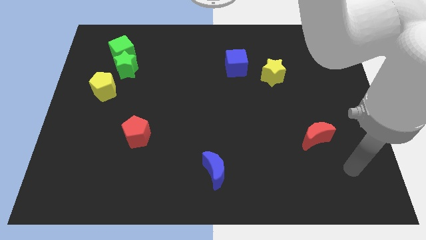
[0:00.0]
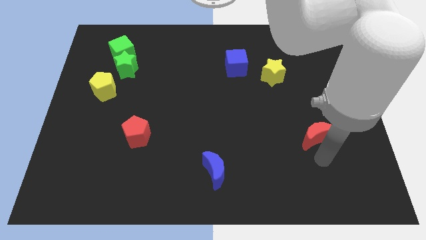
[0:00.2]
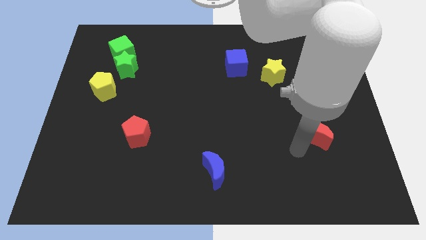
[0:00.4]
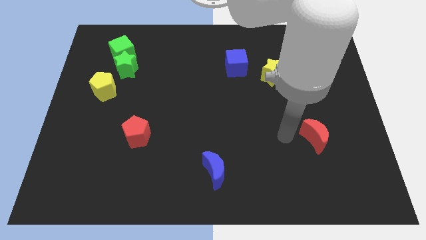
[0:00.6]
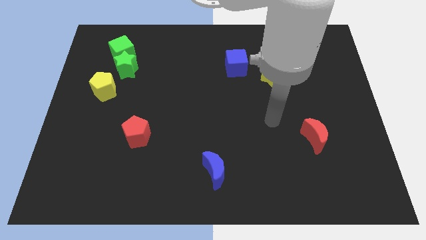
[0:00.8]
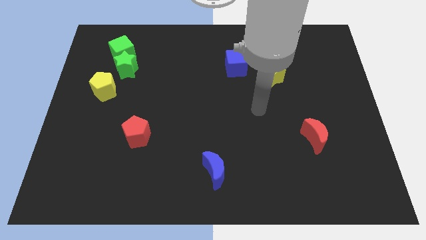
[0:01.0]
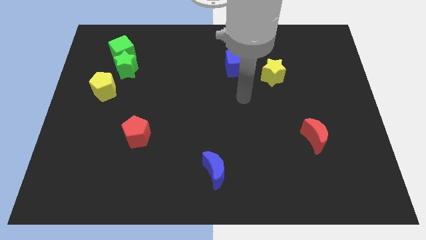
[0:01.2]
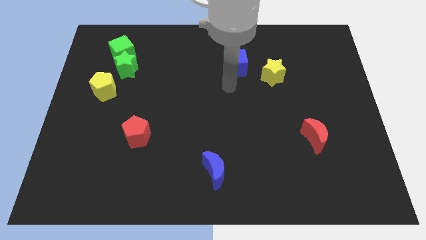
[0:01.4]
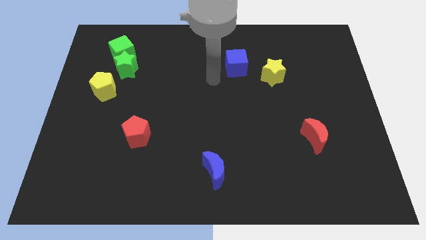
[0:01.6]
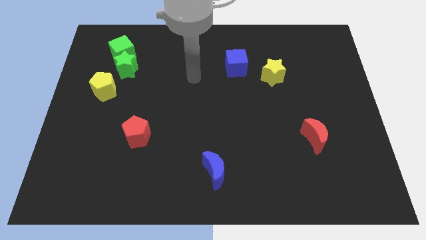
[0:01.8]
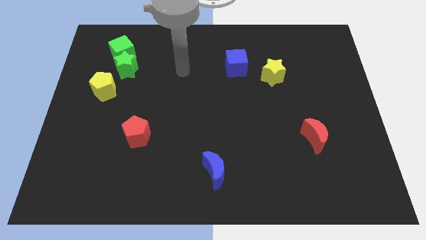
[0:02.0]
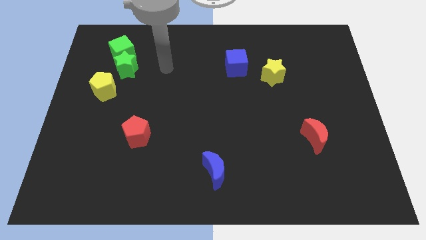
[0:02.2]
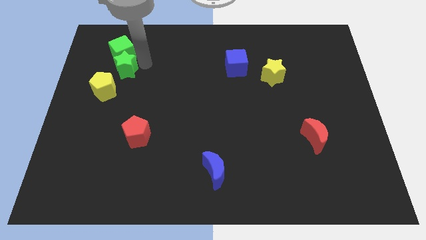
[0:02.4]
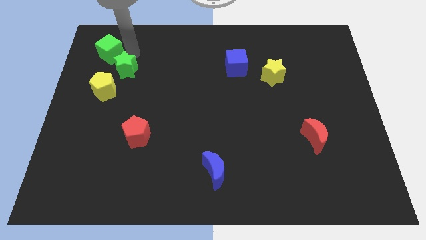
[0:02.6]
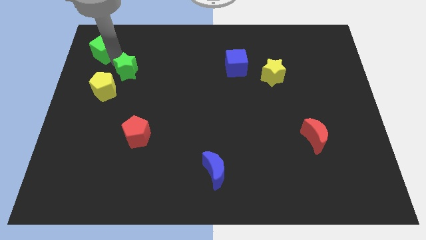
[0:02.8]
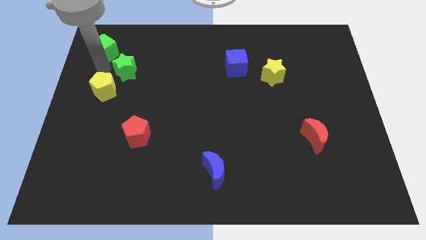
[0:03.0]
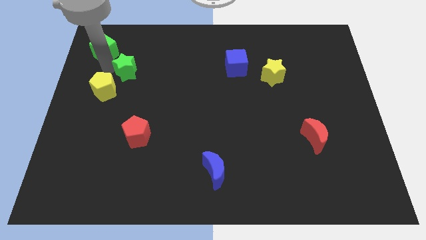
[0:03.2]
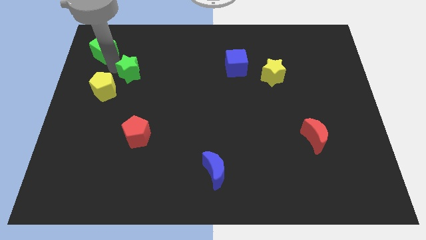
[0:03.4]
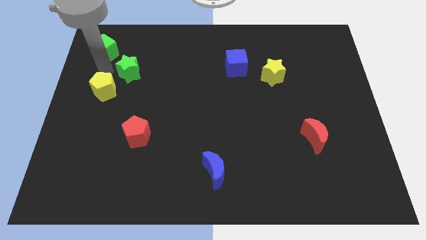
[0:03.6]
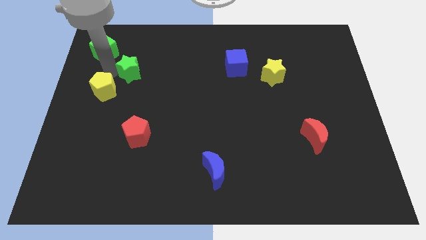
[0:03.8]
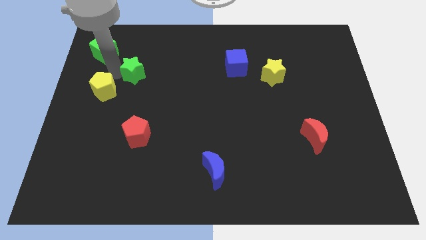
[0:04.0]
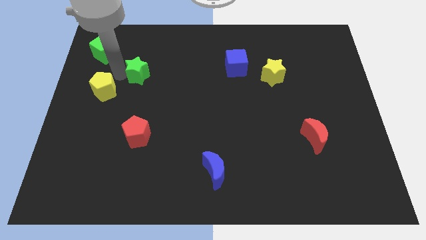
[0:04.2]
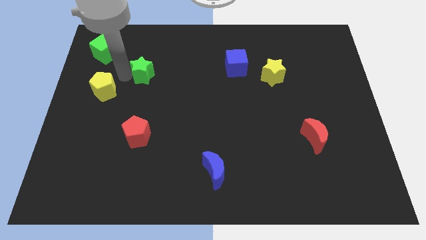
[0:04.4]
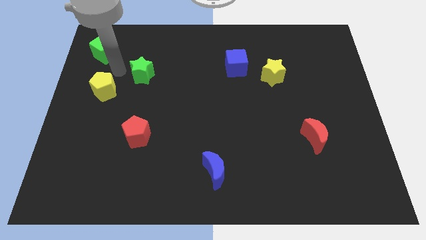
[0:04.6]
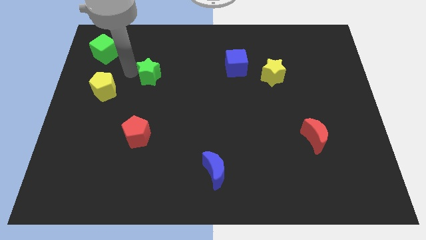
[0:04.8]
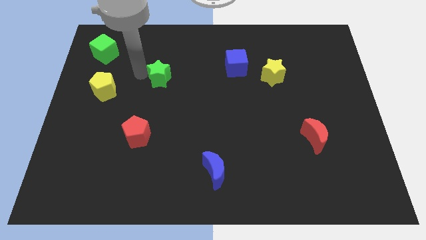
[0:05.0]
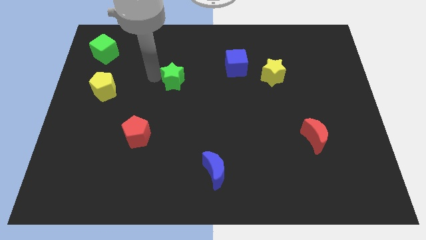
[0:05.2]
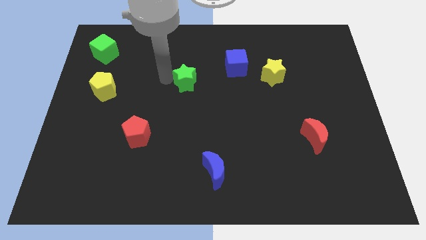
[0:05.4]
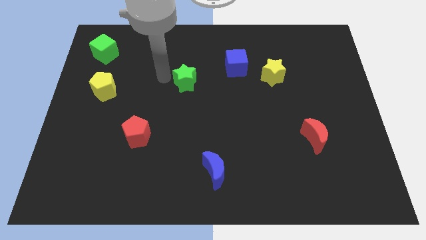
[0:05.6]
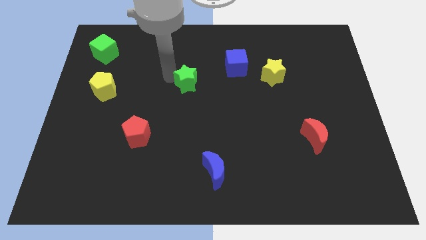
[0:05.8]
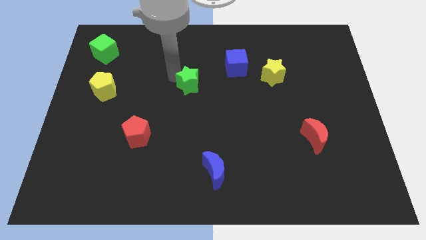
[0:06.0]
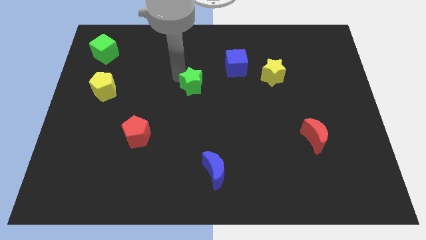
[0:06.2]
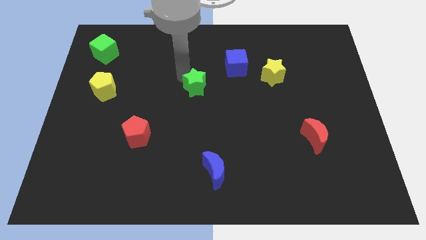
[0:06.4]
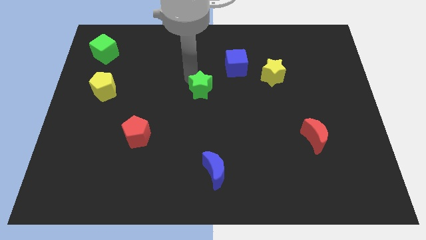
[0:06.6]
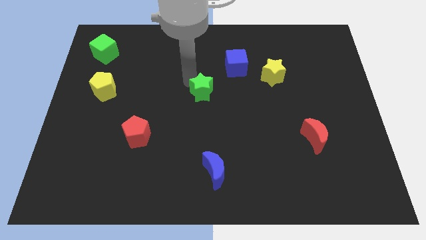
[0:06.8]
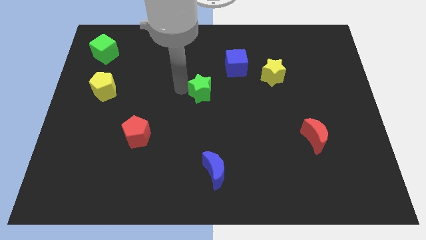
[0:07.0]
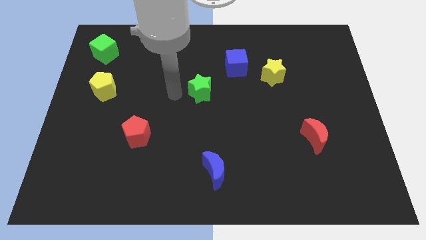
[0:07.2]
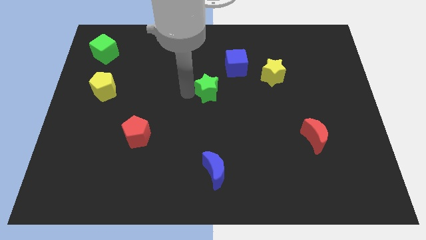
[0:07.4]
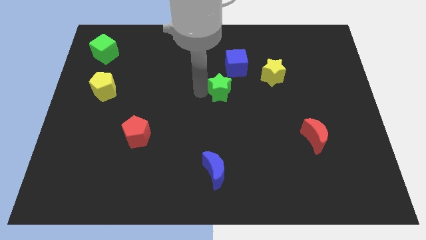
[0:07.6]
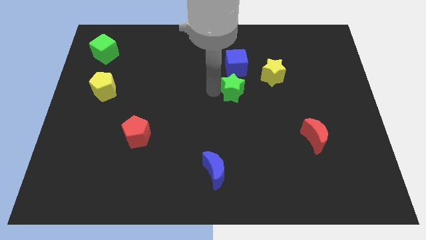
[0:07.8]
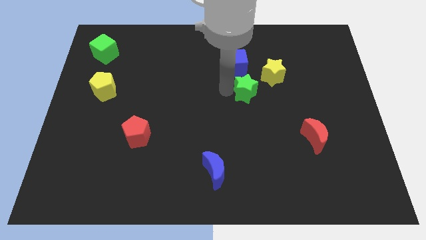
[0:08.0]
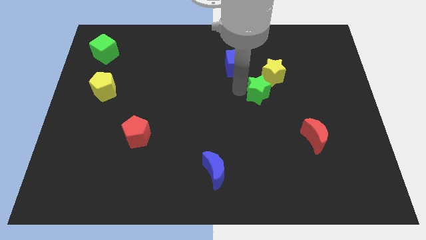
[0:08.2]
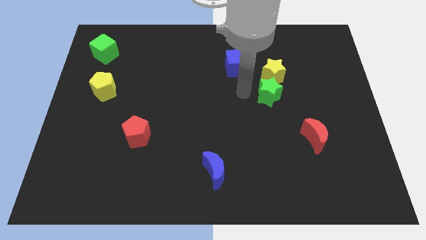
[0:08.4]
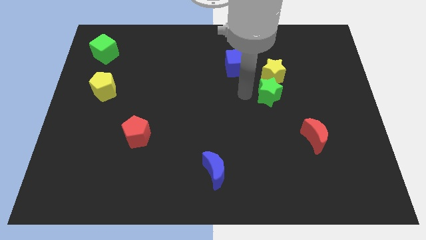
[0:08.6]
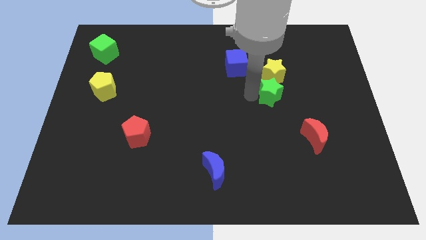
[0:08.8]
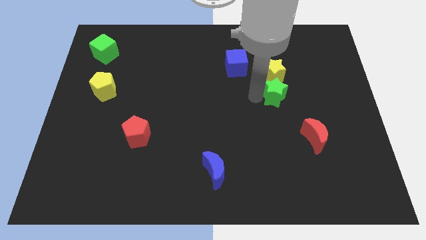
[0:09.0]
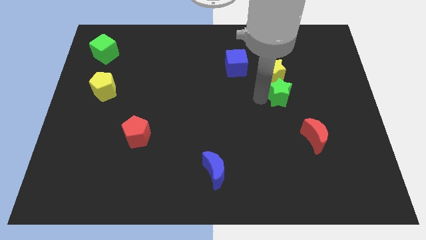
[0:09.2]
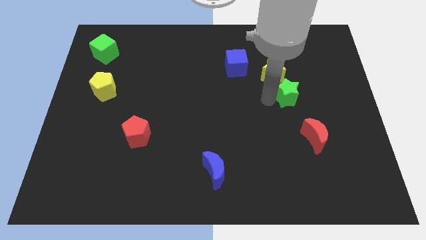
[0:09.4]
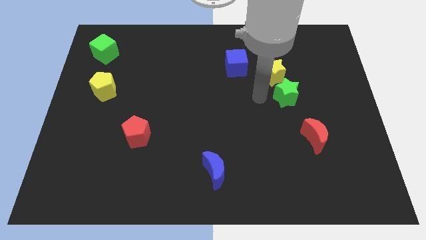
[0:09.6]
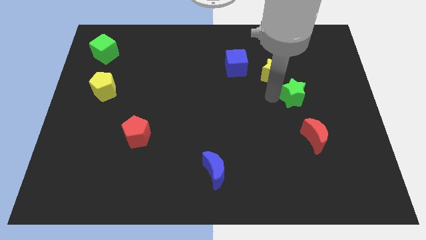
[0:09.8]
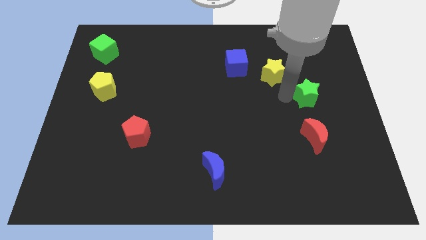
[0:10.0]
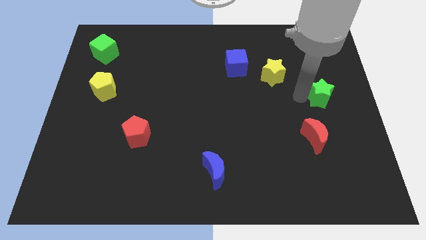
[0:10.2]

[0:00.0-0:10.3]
push the green star to the right side of the board
